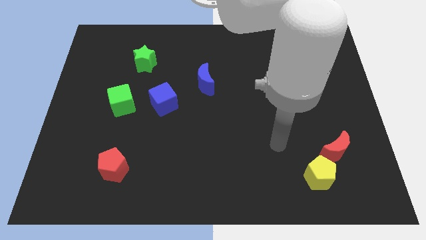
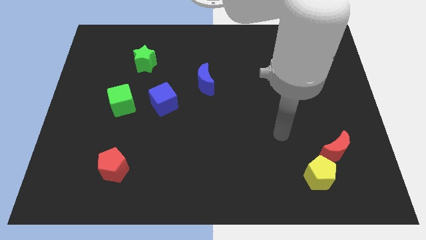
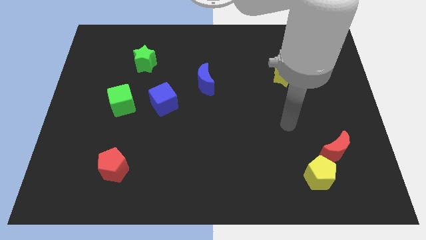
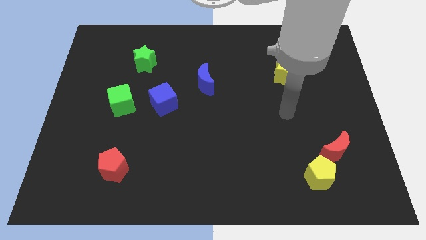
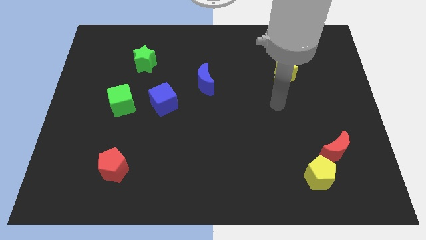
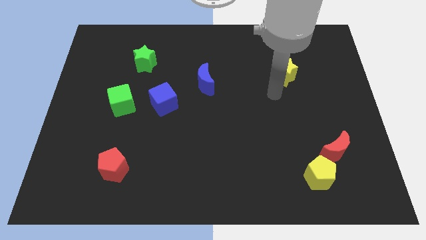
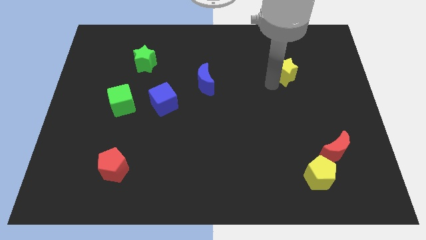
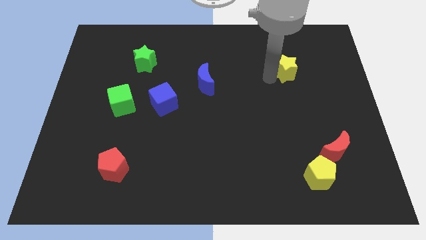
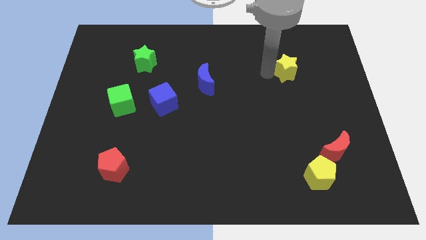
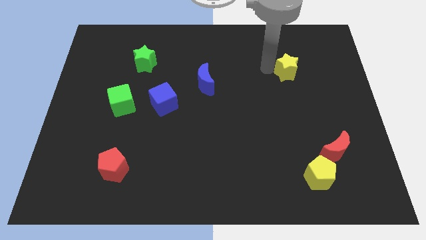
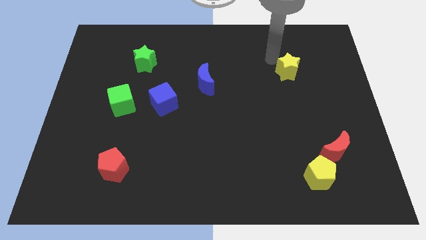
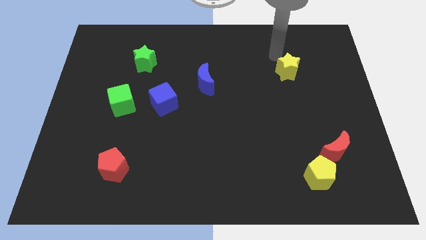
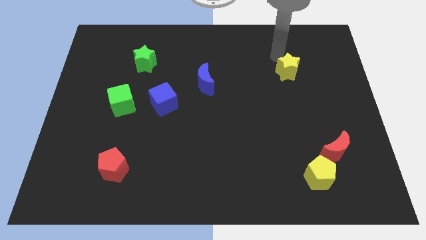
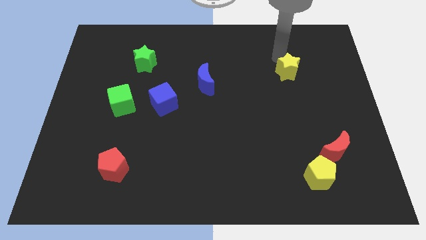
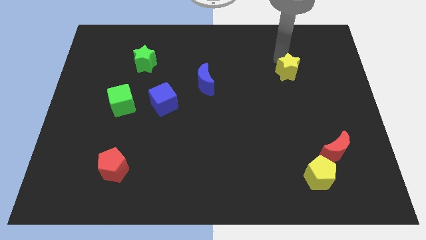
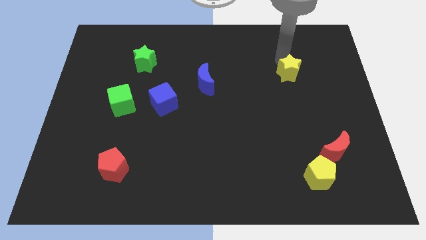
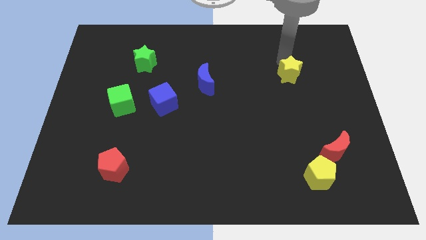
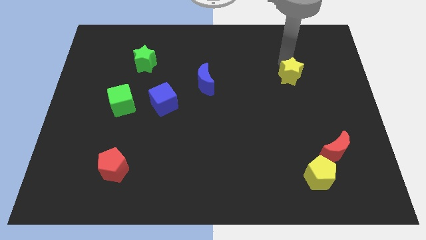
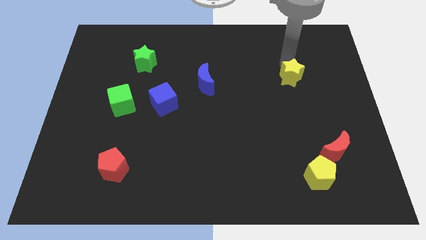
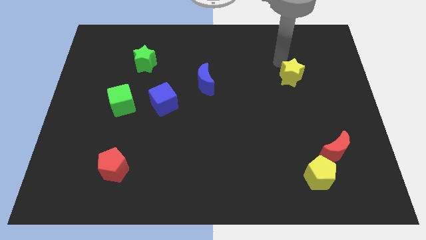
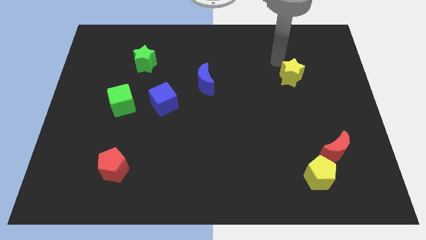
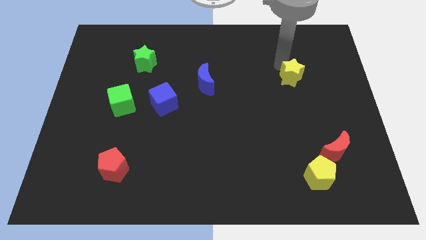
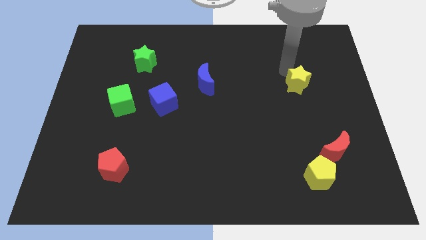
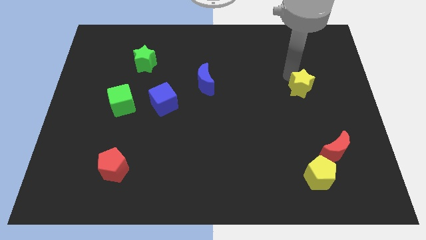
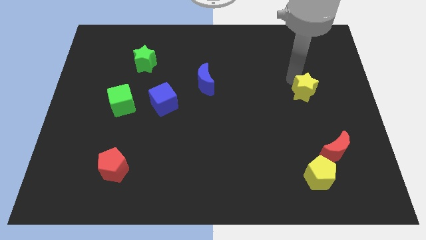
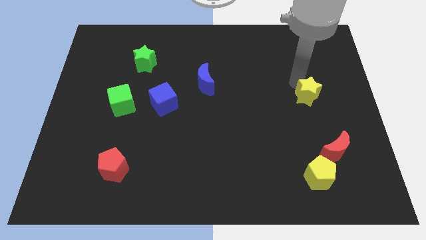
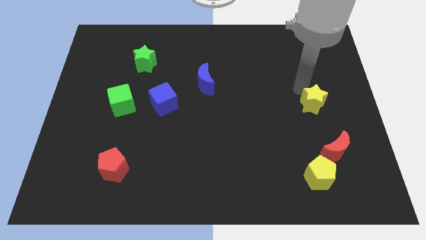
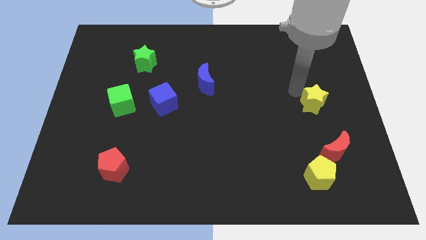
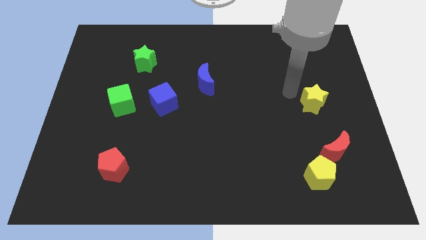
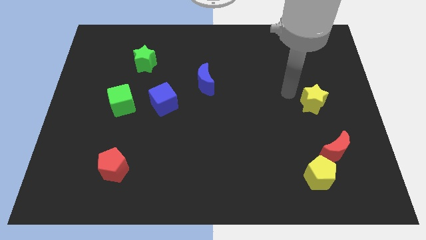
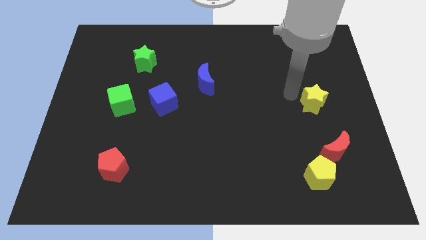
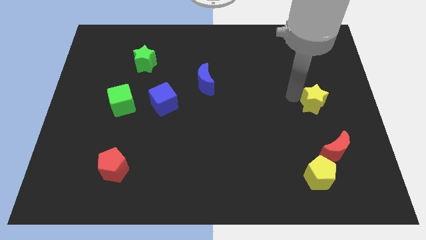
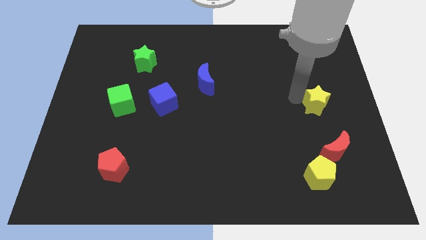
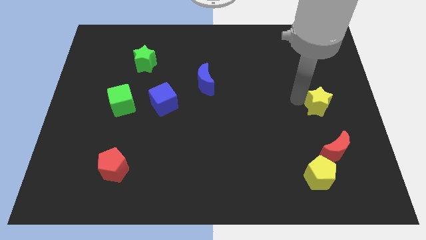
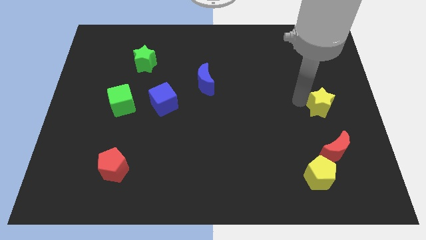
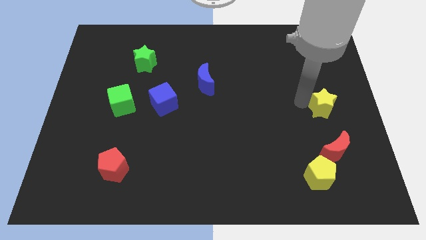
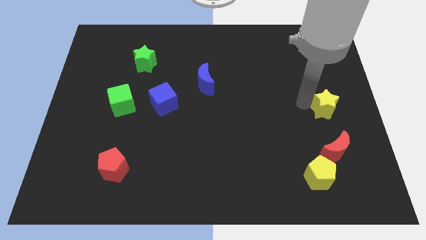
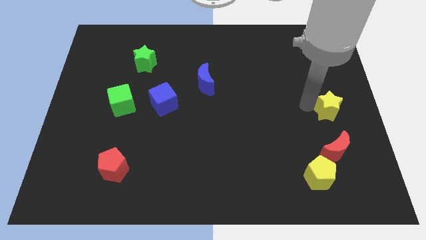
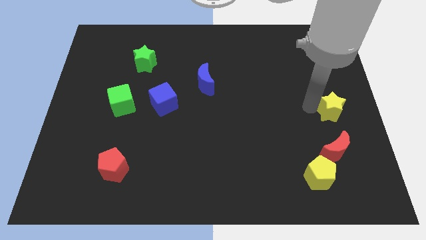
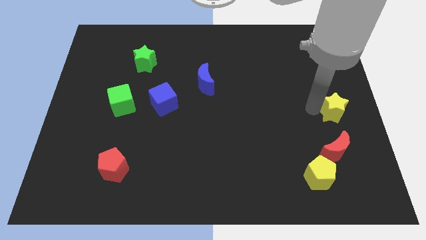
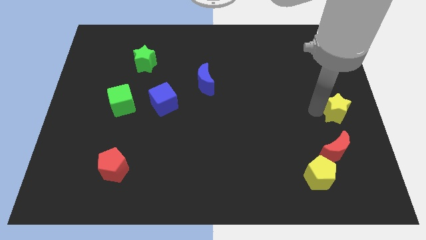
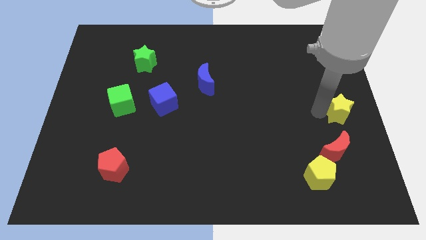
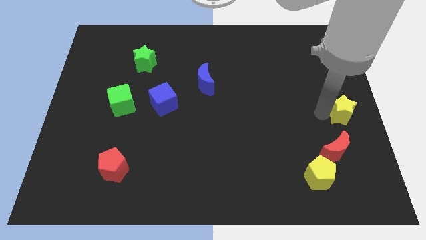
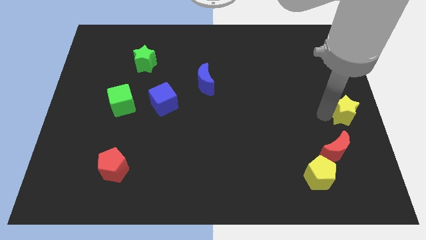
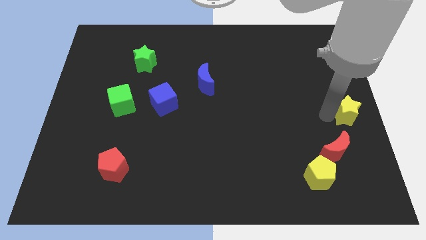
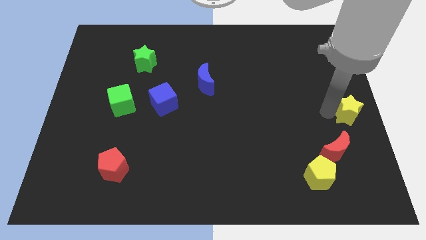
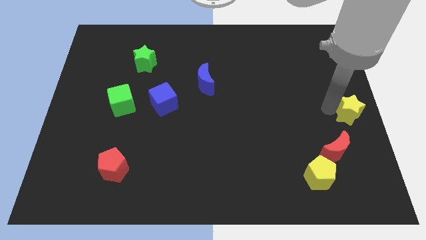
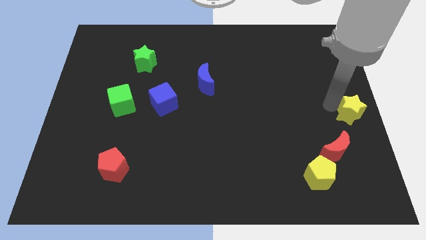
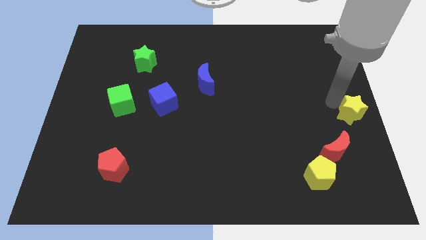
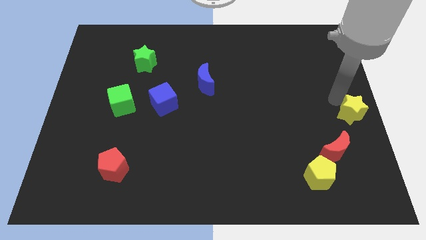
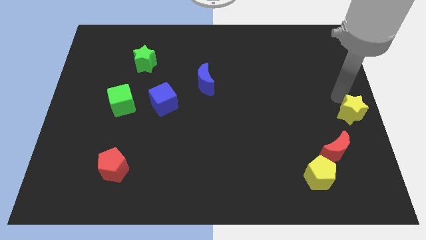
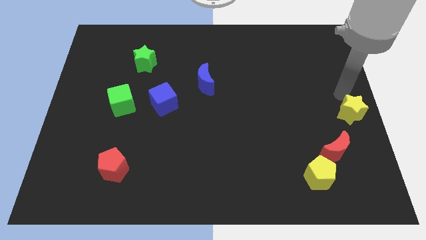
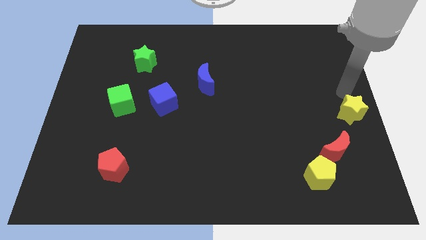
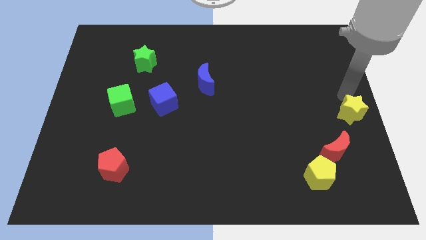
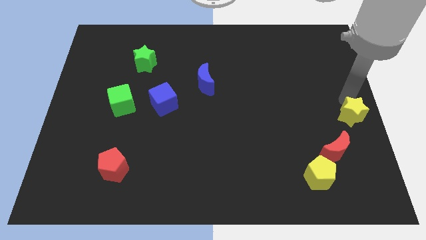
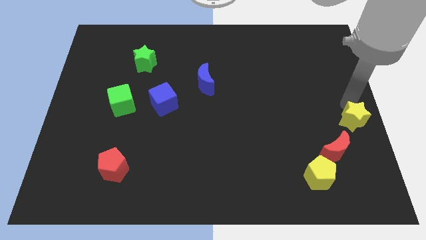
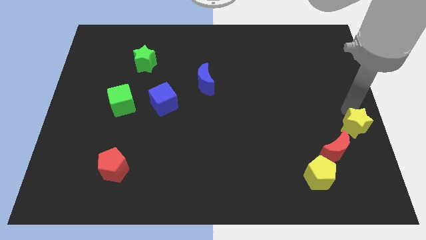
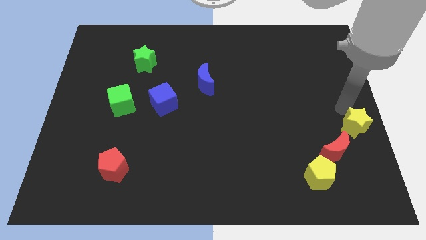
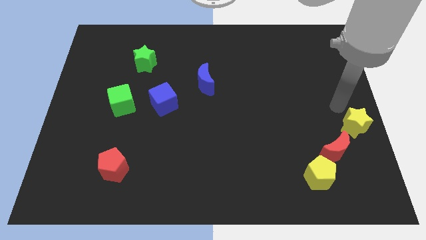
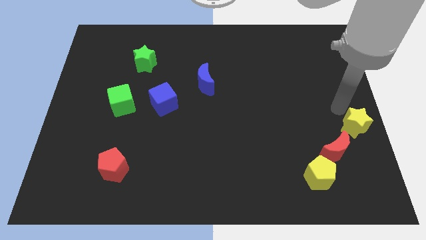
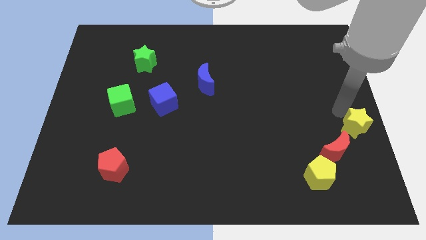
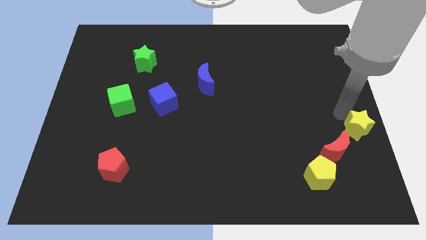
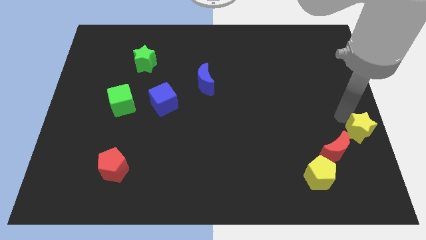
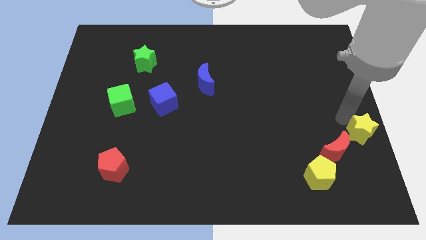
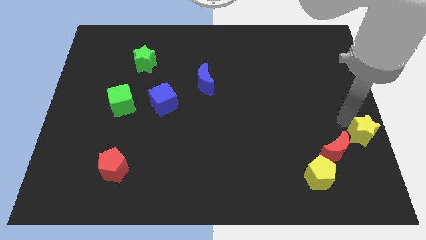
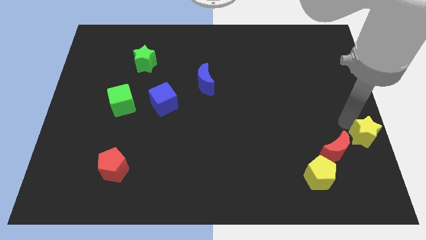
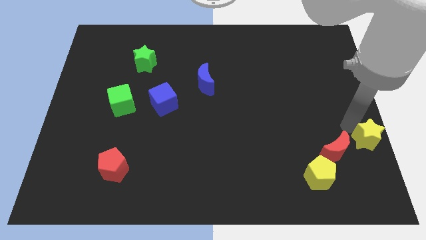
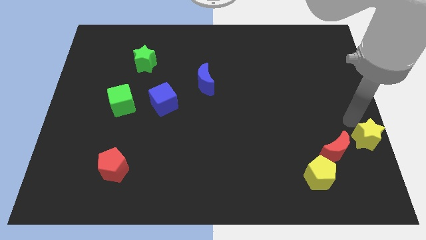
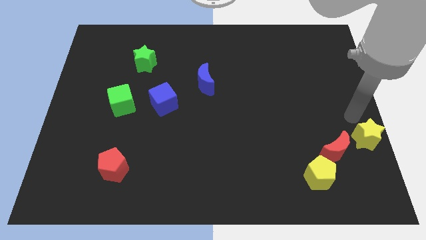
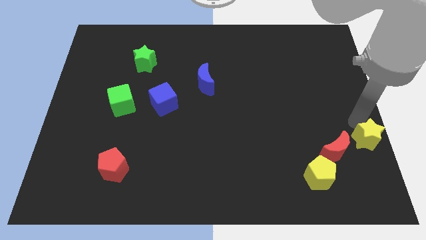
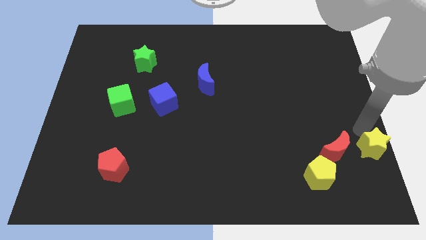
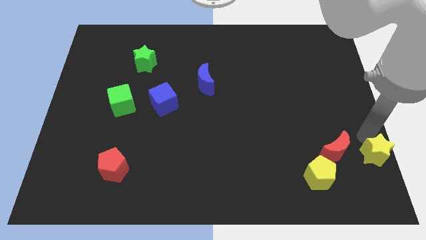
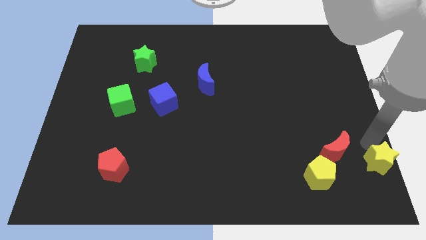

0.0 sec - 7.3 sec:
put the yellow star to the bottom right of the board
